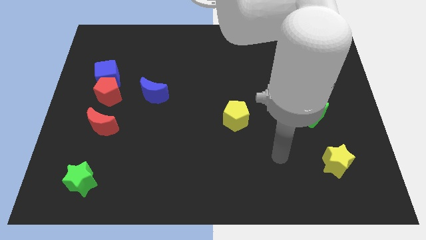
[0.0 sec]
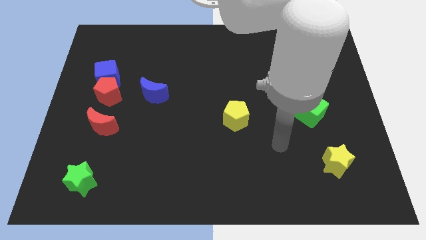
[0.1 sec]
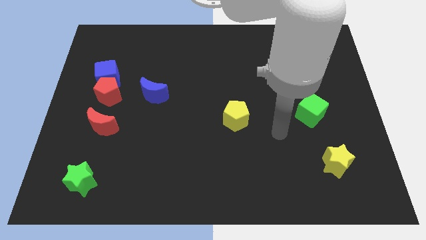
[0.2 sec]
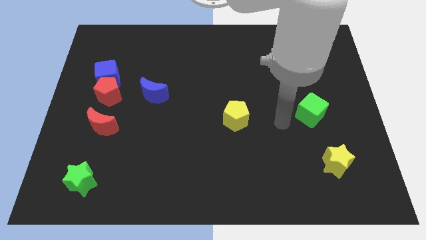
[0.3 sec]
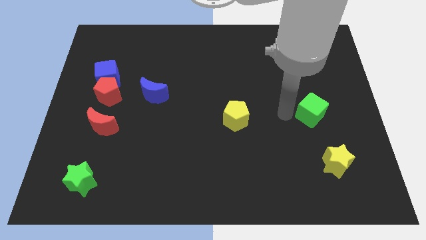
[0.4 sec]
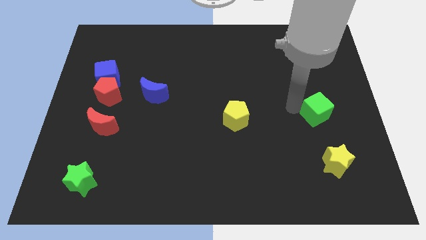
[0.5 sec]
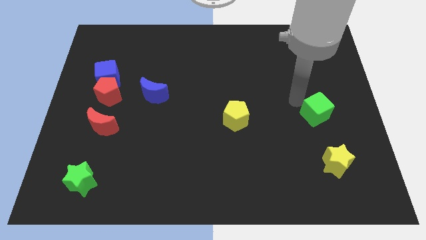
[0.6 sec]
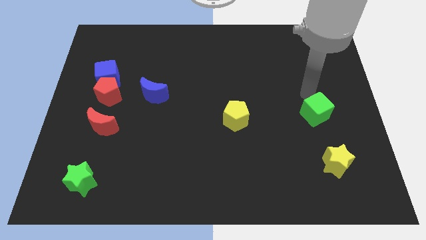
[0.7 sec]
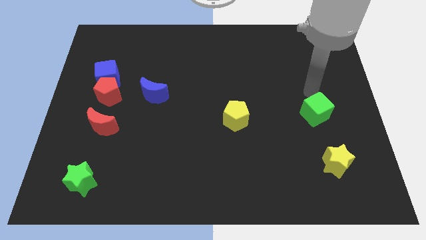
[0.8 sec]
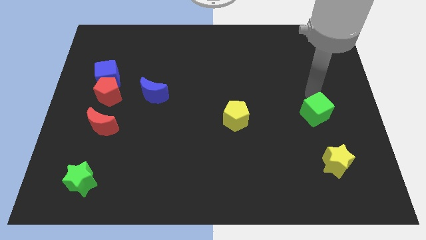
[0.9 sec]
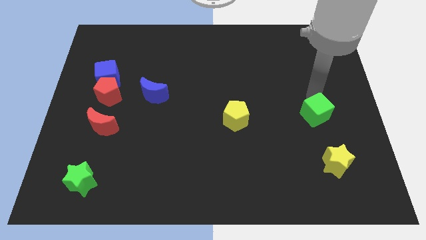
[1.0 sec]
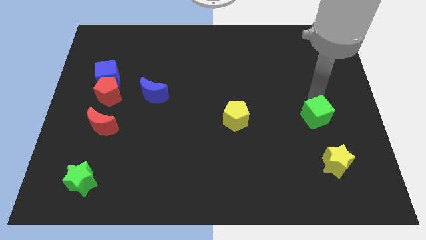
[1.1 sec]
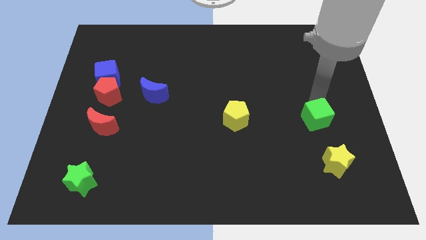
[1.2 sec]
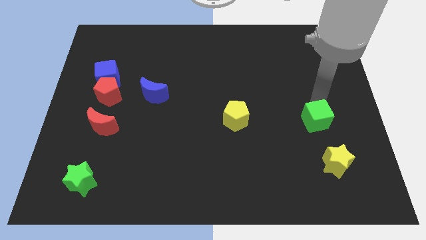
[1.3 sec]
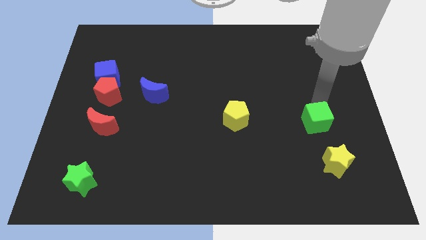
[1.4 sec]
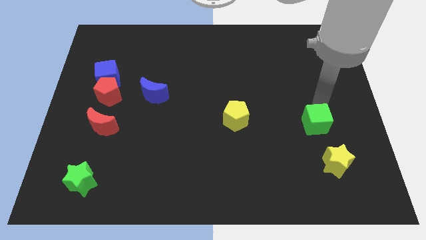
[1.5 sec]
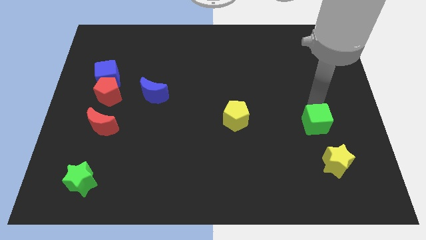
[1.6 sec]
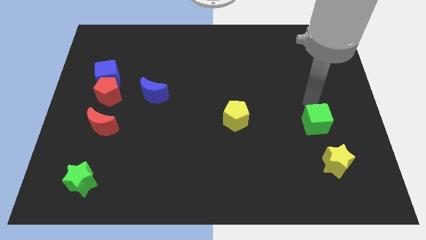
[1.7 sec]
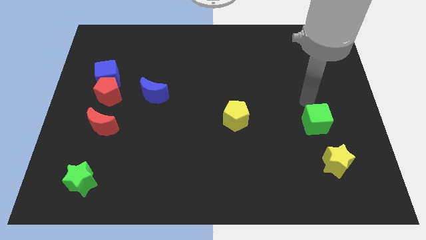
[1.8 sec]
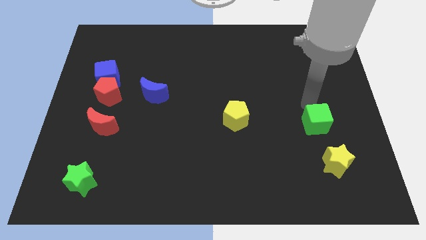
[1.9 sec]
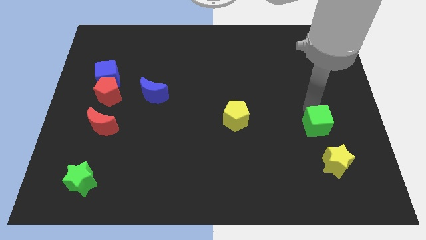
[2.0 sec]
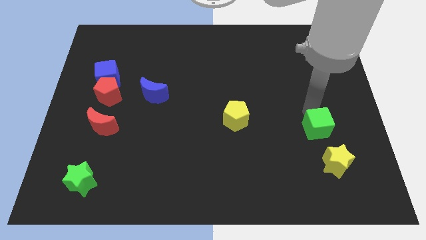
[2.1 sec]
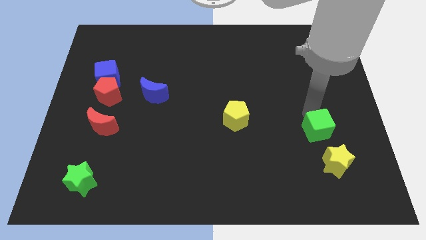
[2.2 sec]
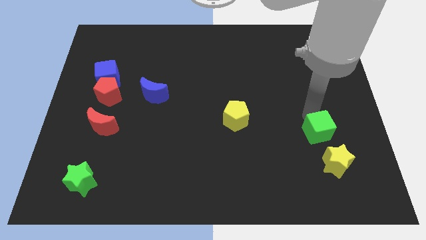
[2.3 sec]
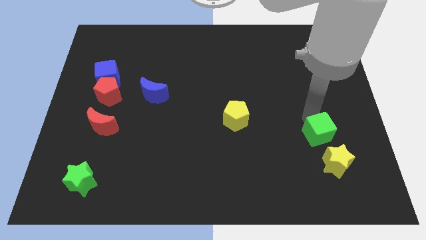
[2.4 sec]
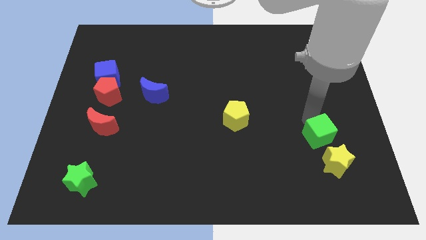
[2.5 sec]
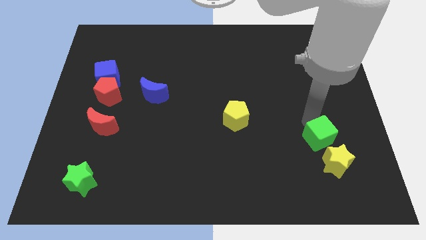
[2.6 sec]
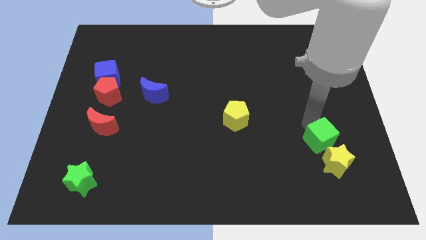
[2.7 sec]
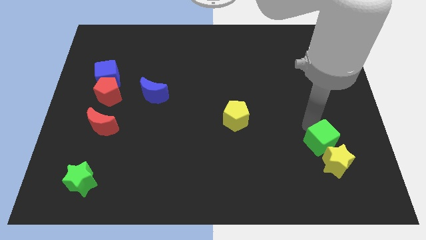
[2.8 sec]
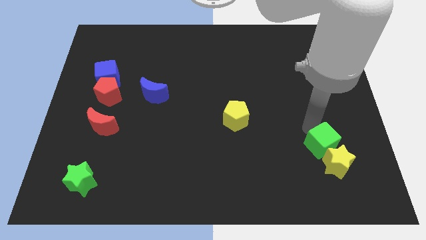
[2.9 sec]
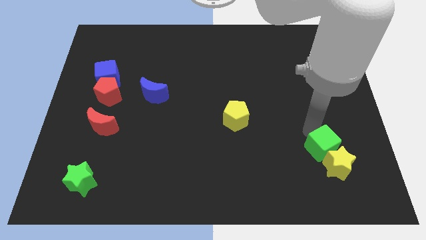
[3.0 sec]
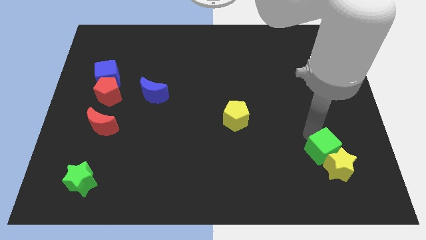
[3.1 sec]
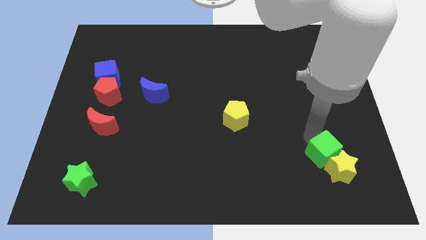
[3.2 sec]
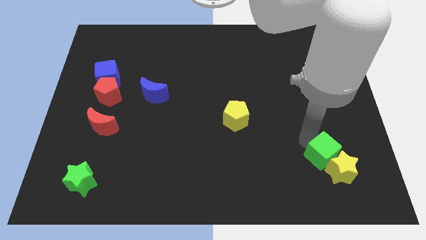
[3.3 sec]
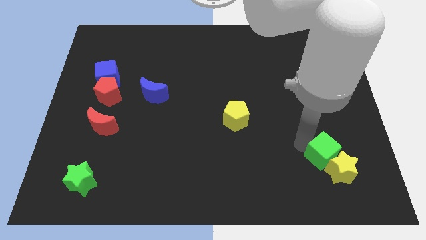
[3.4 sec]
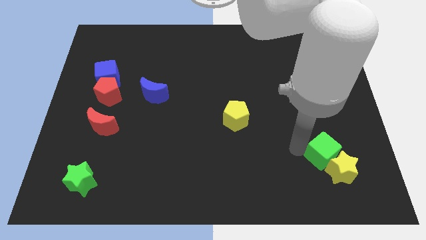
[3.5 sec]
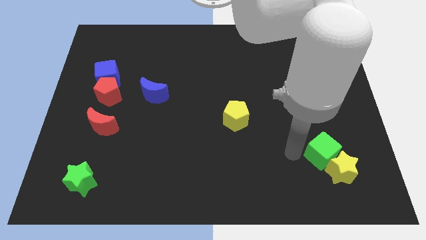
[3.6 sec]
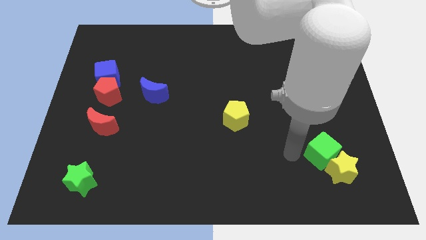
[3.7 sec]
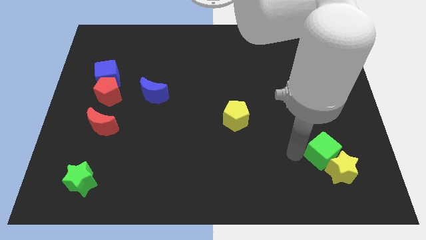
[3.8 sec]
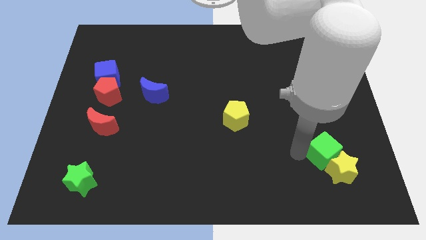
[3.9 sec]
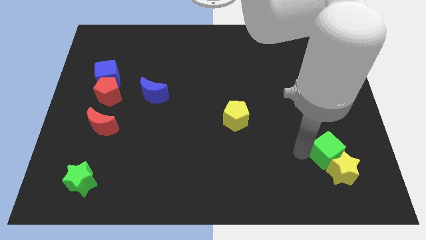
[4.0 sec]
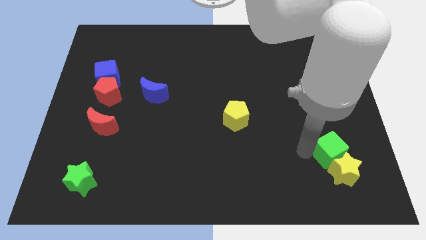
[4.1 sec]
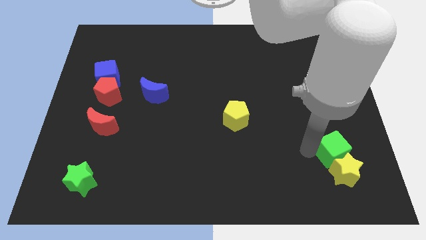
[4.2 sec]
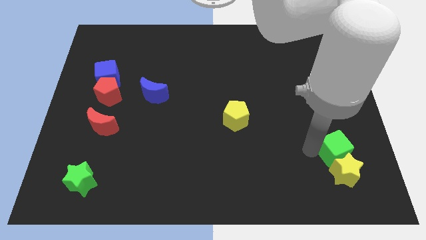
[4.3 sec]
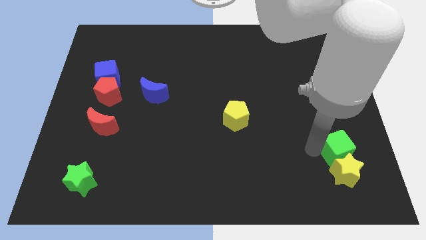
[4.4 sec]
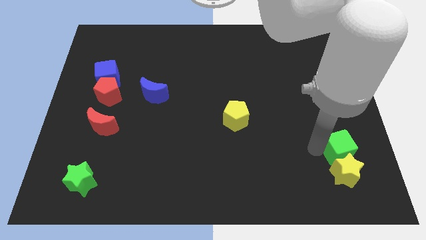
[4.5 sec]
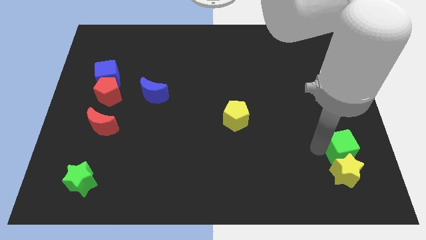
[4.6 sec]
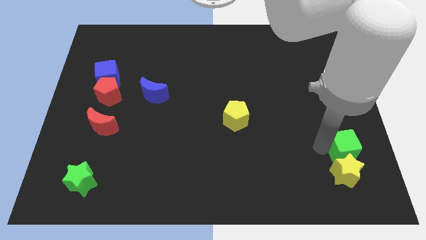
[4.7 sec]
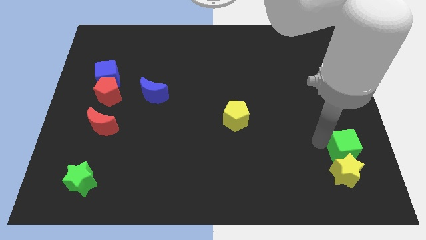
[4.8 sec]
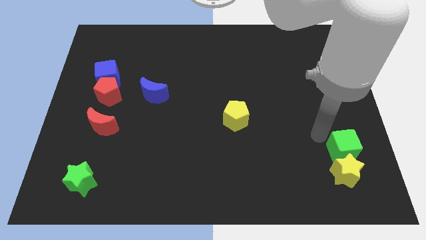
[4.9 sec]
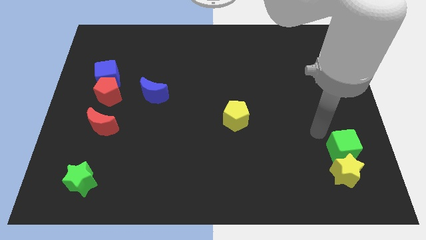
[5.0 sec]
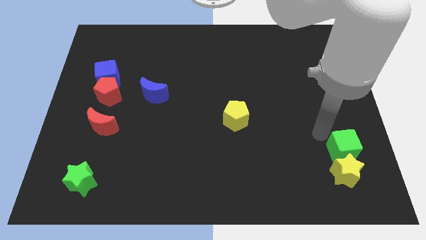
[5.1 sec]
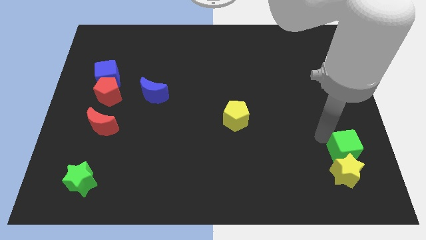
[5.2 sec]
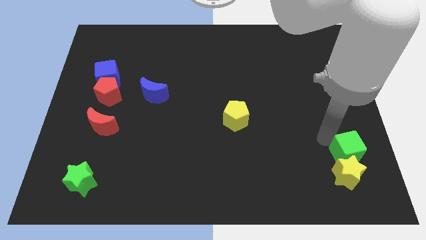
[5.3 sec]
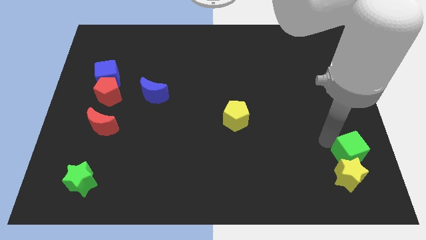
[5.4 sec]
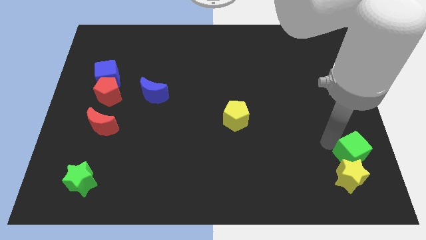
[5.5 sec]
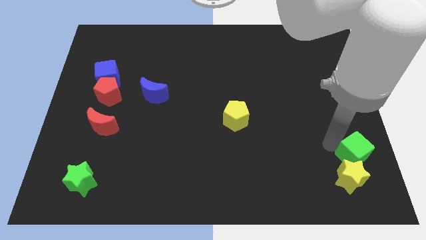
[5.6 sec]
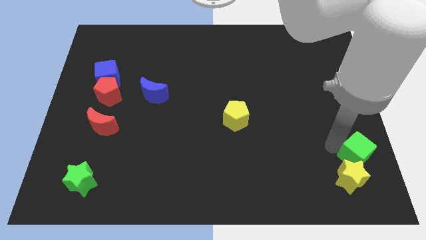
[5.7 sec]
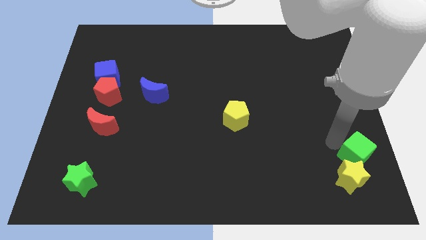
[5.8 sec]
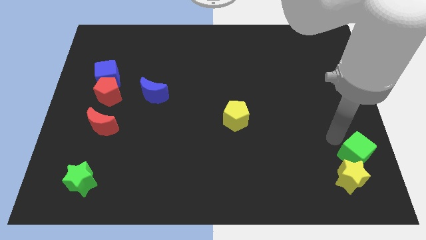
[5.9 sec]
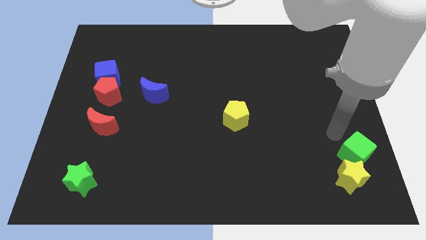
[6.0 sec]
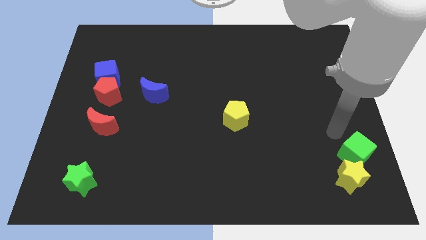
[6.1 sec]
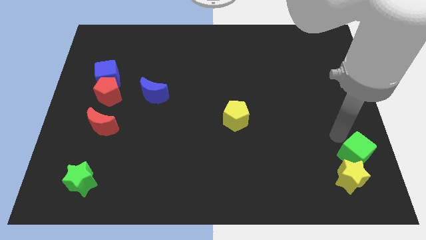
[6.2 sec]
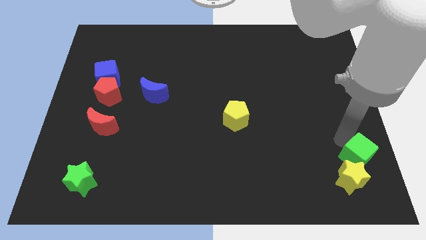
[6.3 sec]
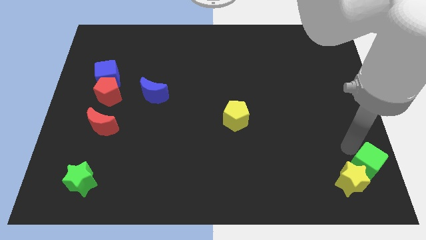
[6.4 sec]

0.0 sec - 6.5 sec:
move the green cube to the bottom right corner
